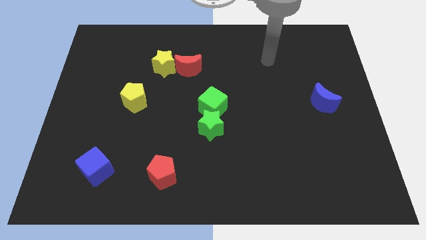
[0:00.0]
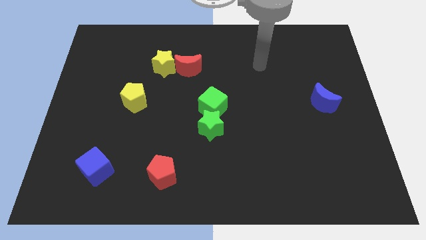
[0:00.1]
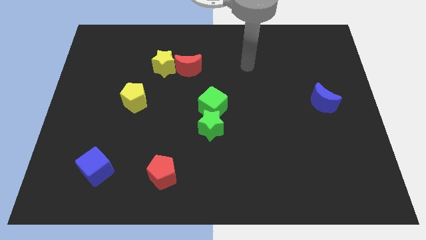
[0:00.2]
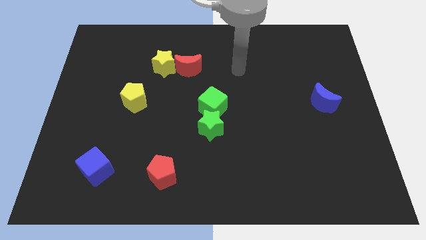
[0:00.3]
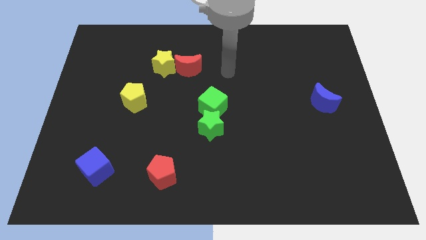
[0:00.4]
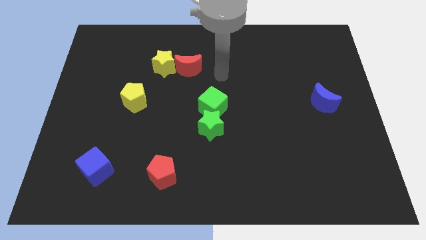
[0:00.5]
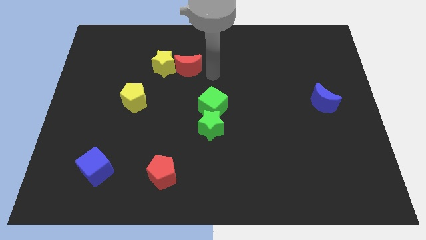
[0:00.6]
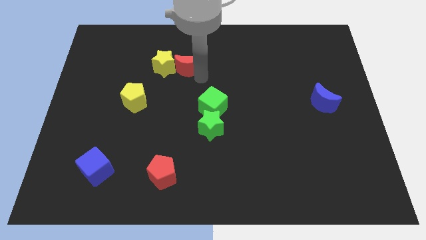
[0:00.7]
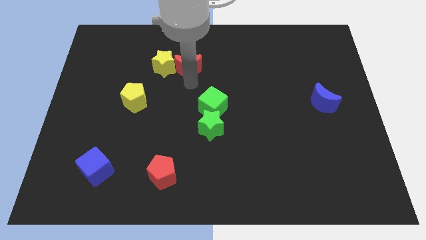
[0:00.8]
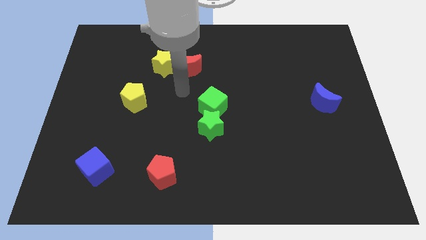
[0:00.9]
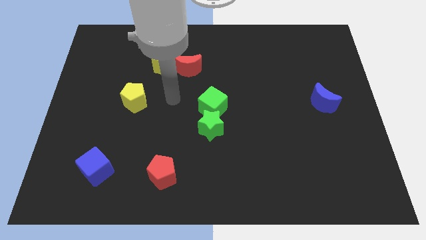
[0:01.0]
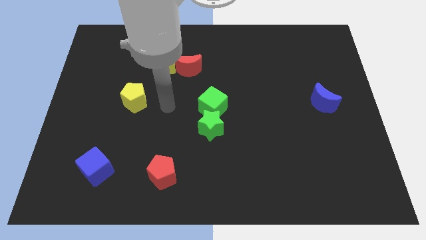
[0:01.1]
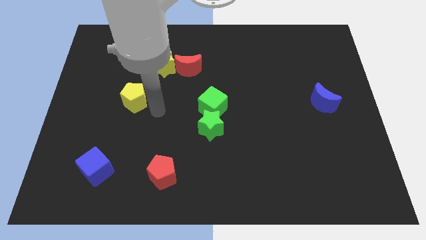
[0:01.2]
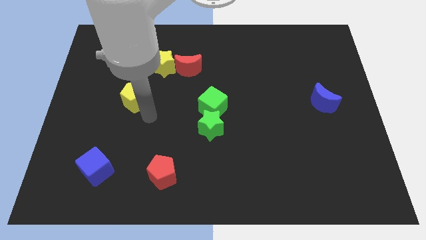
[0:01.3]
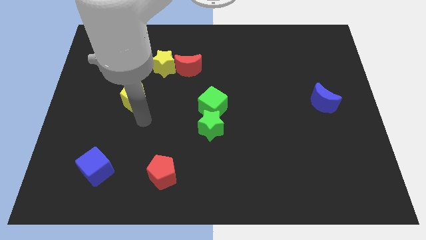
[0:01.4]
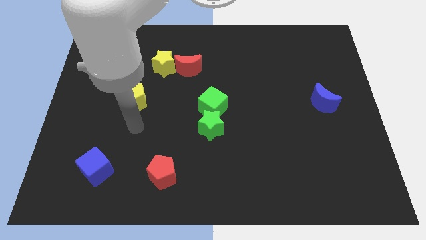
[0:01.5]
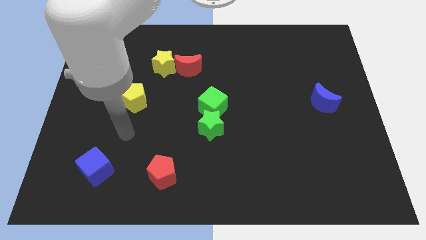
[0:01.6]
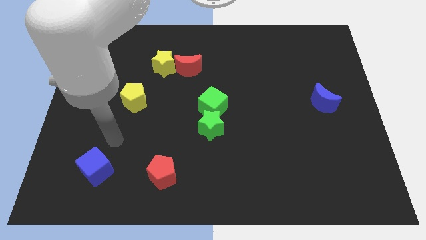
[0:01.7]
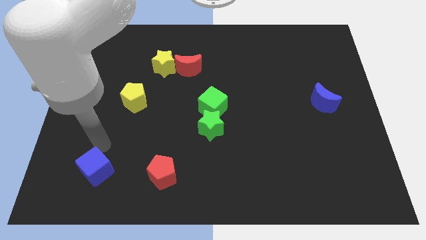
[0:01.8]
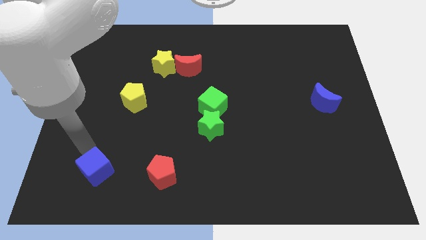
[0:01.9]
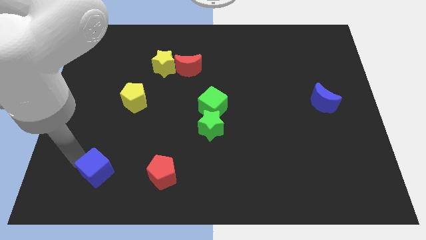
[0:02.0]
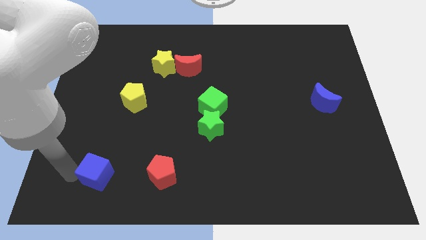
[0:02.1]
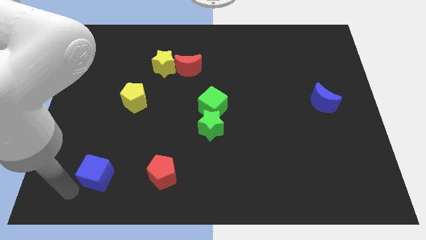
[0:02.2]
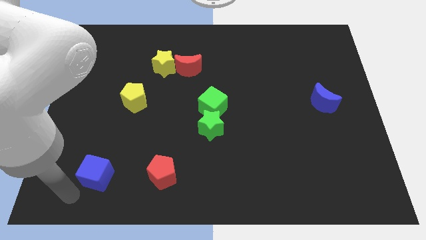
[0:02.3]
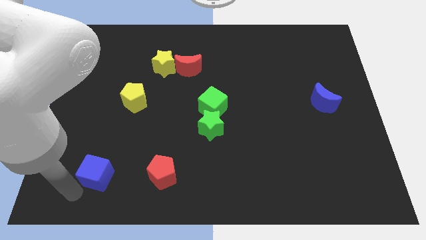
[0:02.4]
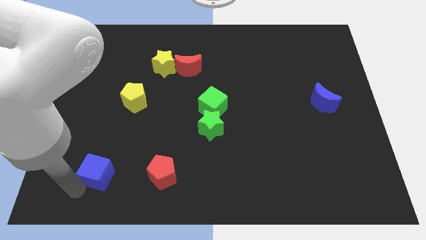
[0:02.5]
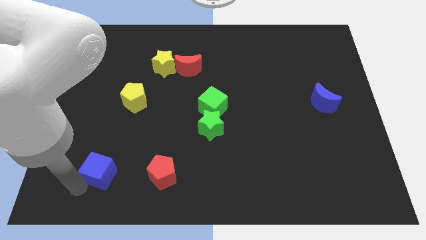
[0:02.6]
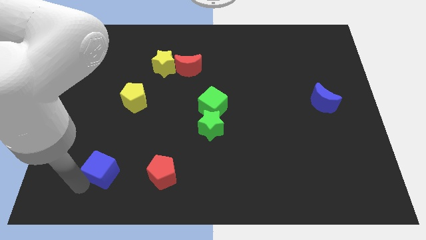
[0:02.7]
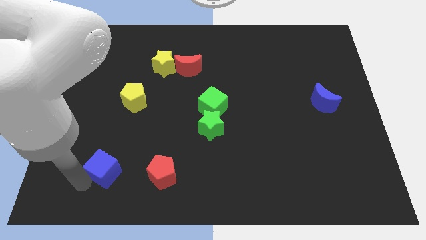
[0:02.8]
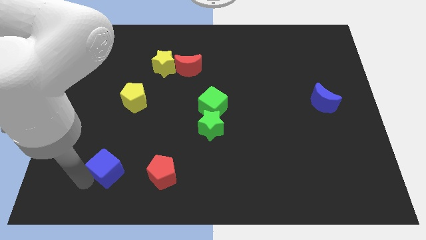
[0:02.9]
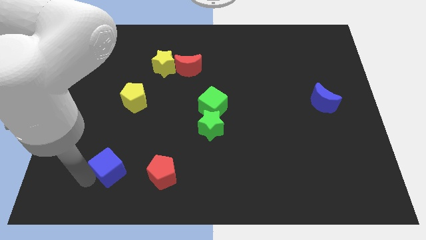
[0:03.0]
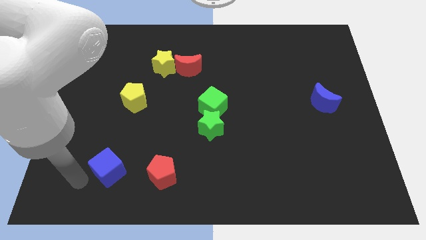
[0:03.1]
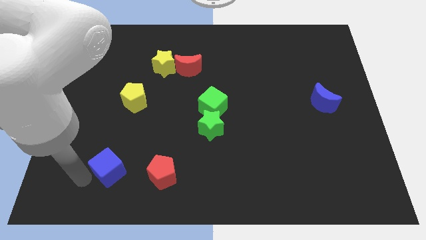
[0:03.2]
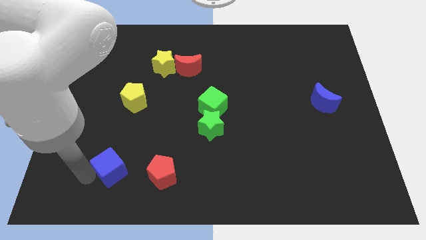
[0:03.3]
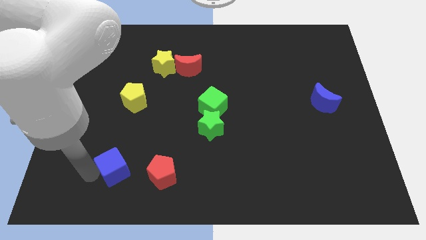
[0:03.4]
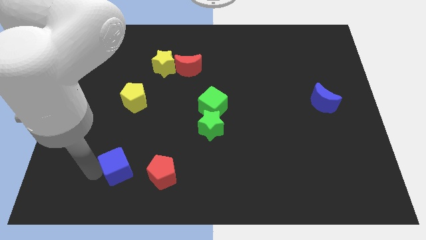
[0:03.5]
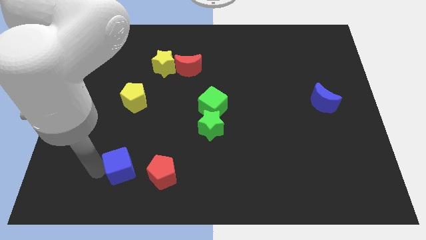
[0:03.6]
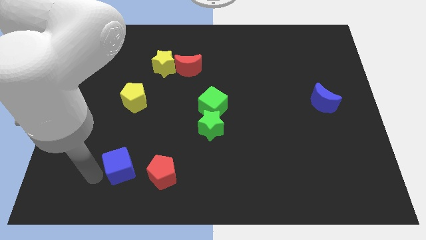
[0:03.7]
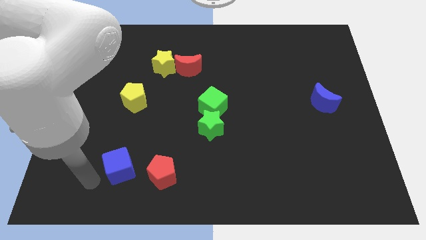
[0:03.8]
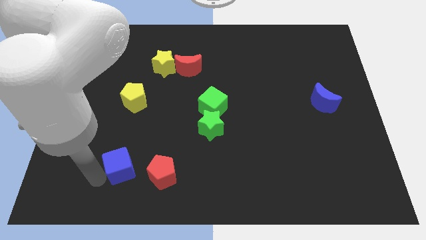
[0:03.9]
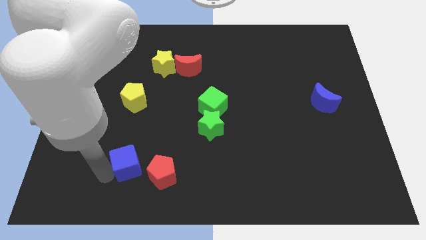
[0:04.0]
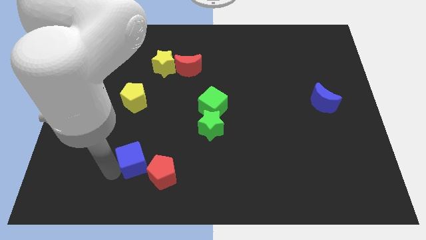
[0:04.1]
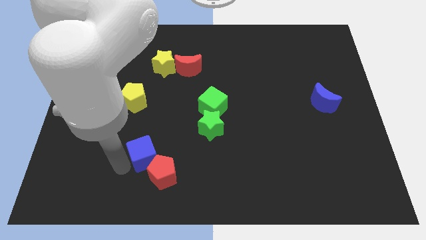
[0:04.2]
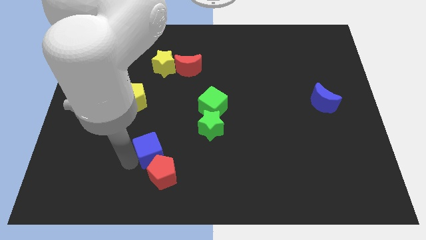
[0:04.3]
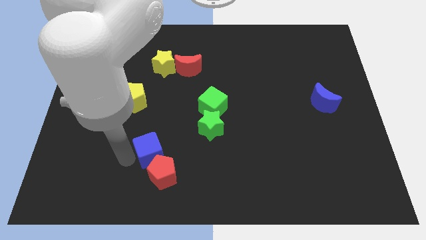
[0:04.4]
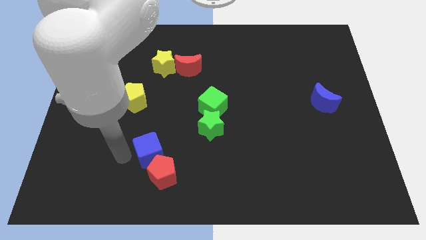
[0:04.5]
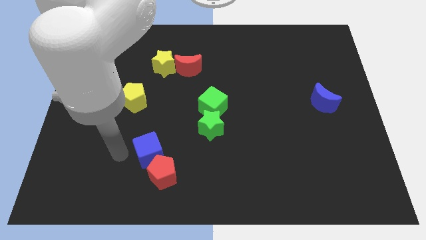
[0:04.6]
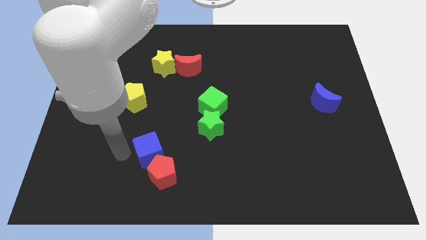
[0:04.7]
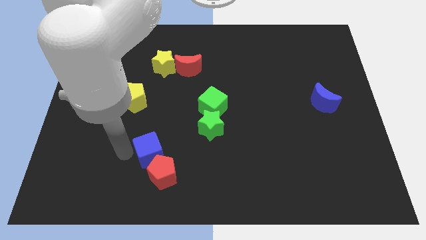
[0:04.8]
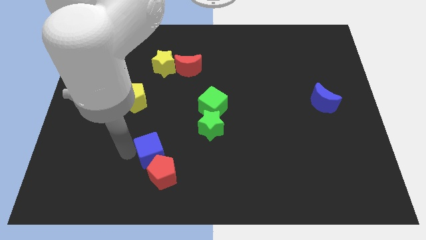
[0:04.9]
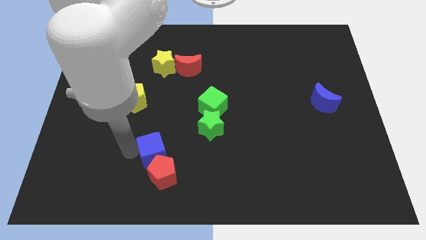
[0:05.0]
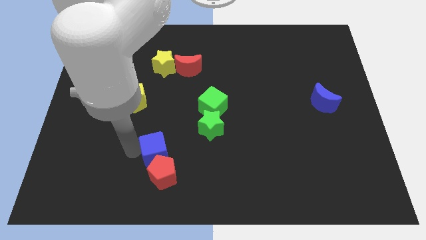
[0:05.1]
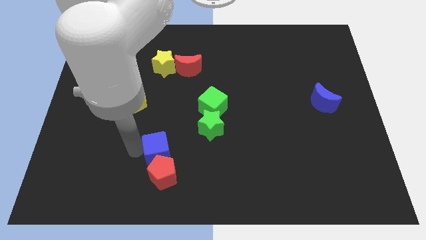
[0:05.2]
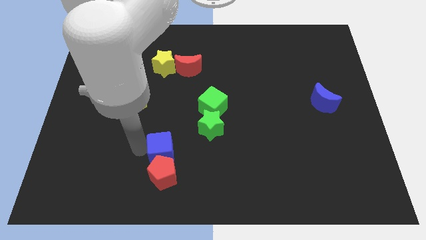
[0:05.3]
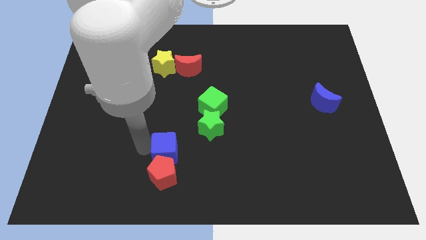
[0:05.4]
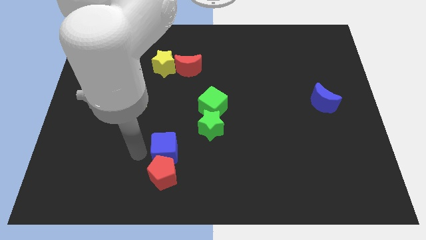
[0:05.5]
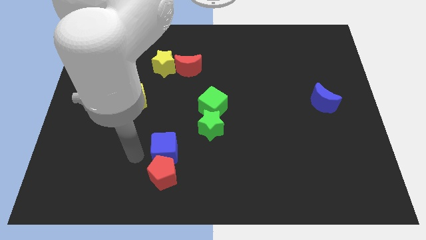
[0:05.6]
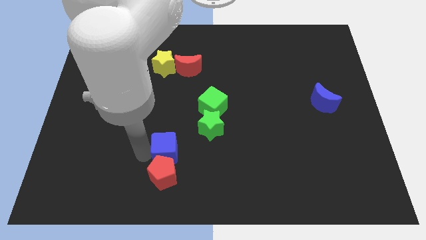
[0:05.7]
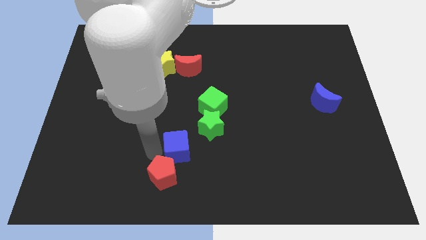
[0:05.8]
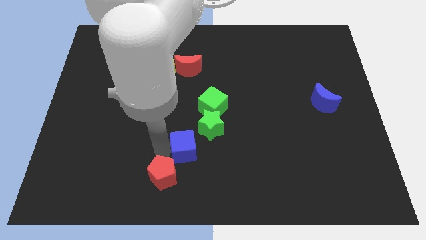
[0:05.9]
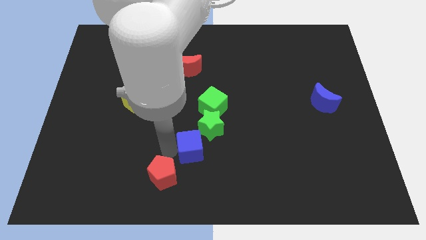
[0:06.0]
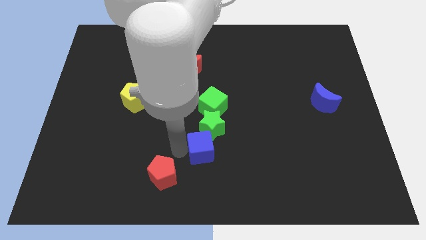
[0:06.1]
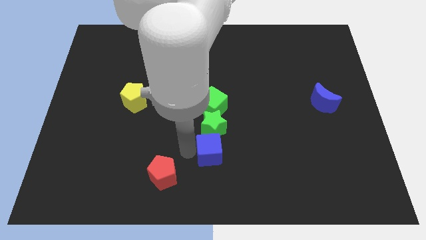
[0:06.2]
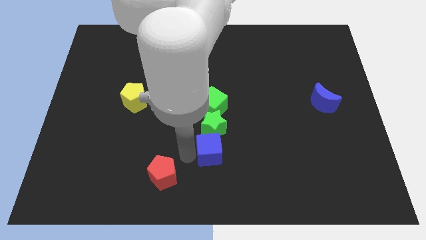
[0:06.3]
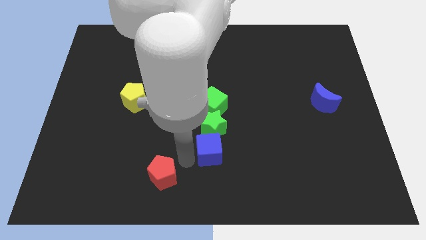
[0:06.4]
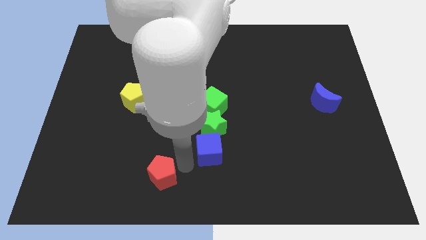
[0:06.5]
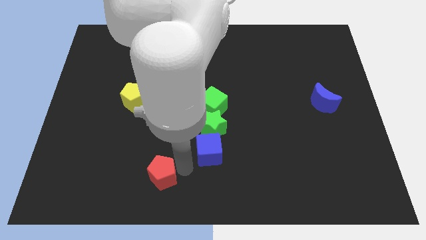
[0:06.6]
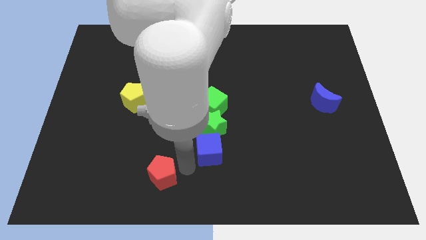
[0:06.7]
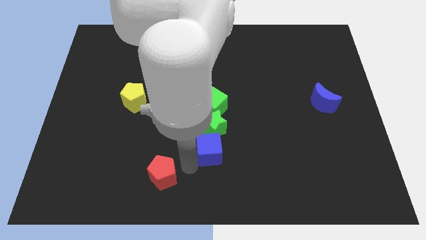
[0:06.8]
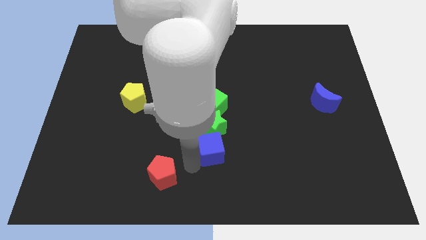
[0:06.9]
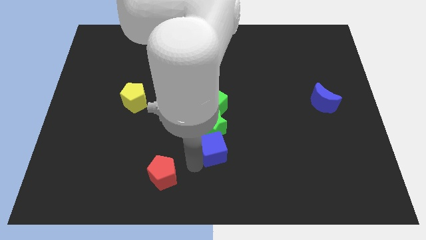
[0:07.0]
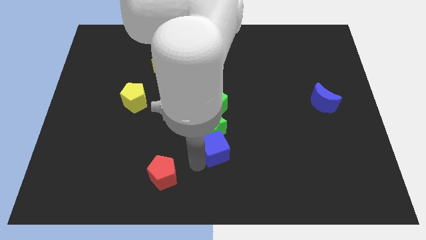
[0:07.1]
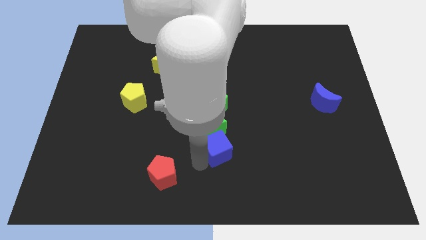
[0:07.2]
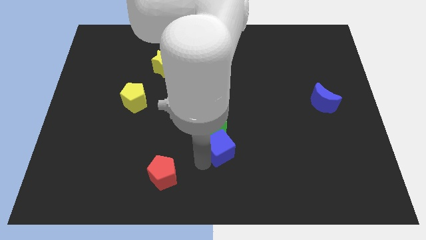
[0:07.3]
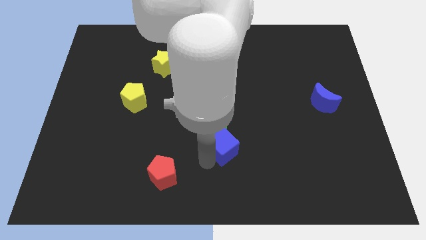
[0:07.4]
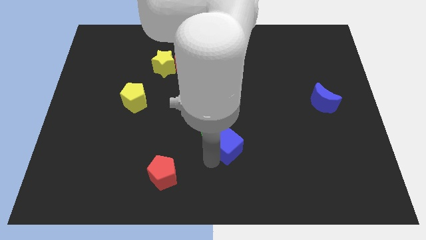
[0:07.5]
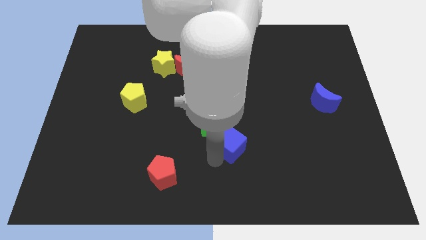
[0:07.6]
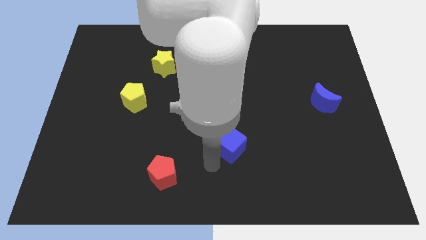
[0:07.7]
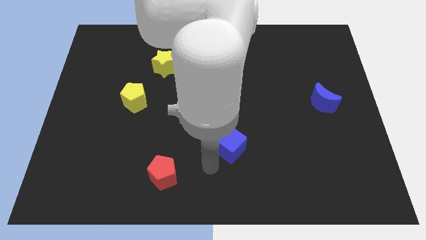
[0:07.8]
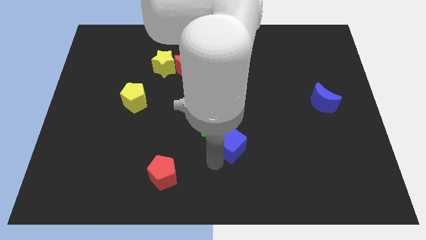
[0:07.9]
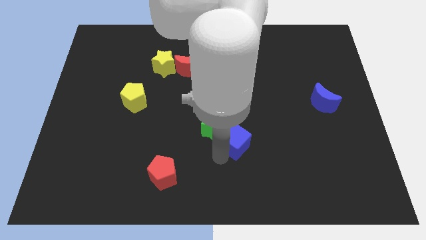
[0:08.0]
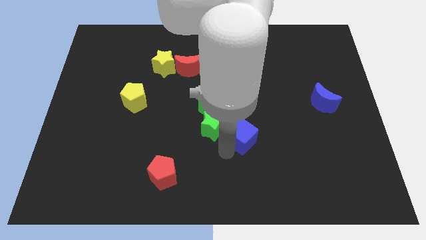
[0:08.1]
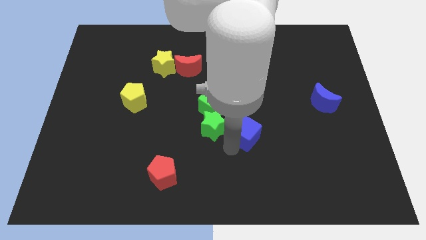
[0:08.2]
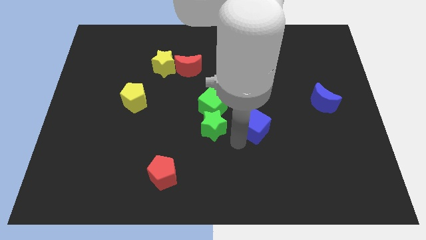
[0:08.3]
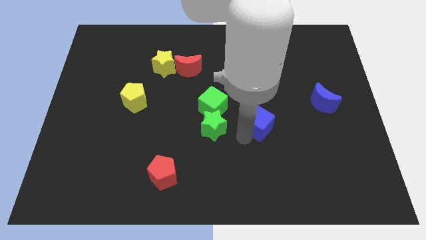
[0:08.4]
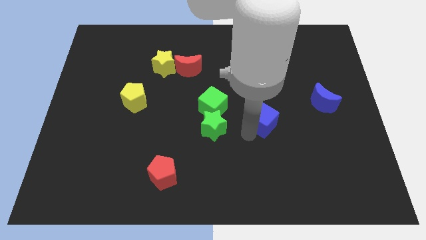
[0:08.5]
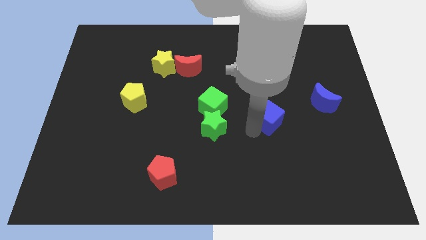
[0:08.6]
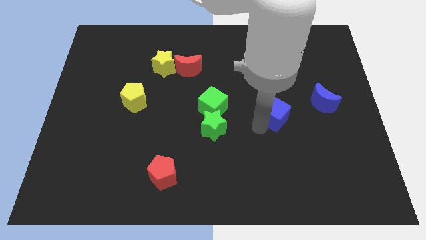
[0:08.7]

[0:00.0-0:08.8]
move the blue cube just left of the blue moon
